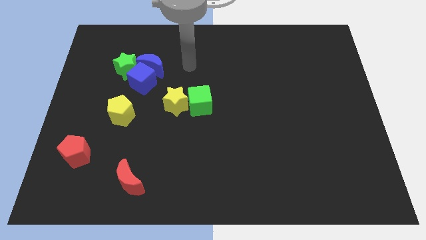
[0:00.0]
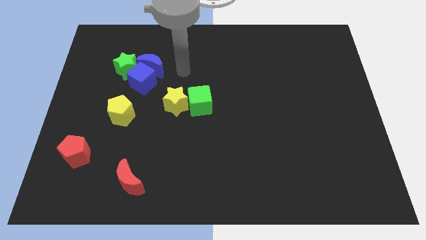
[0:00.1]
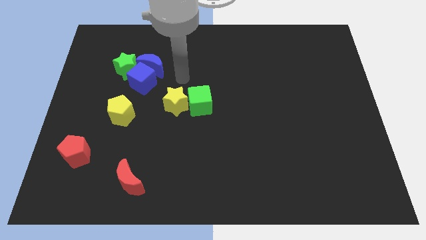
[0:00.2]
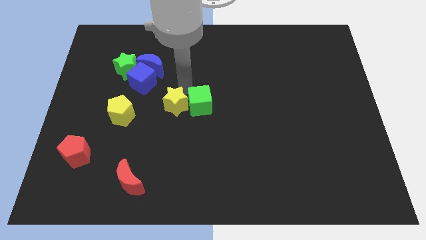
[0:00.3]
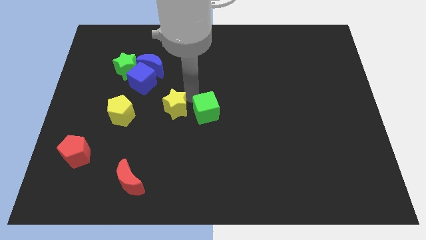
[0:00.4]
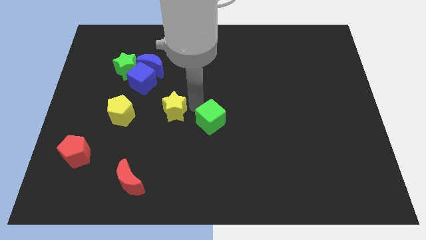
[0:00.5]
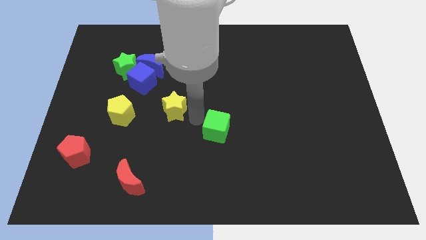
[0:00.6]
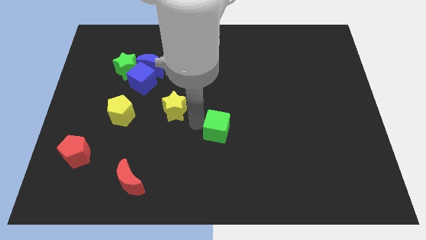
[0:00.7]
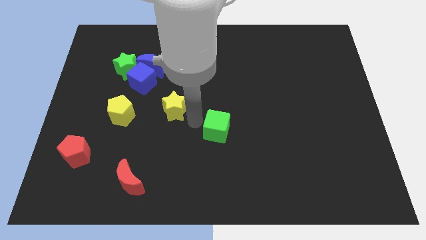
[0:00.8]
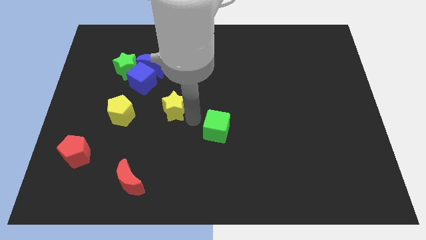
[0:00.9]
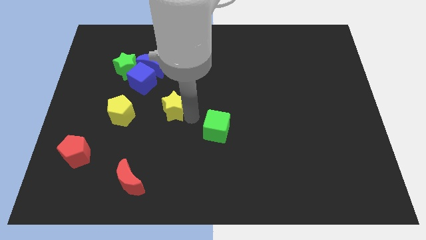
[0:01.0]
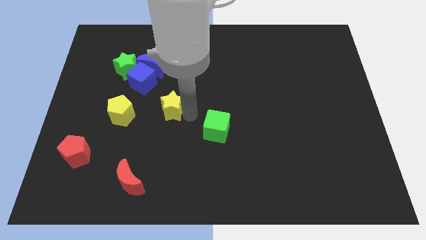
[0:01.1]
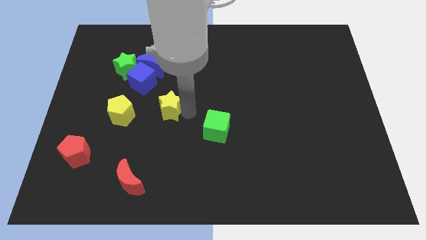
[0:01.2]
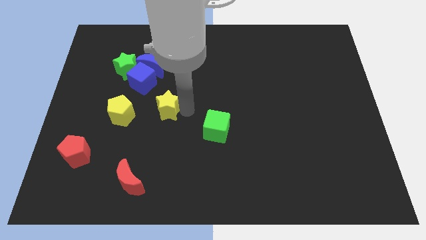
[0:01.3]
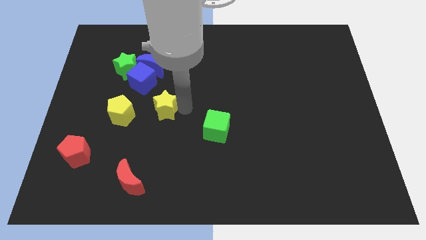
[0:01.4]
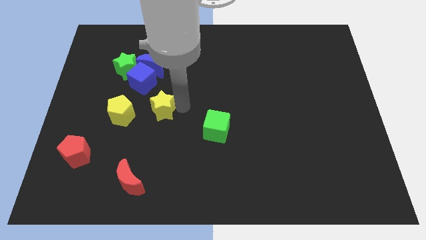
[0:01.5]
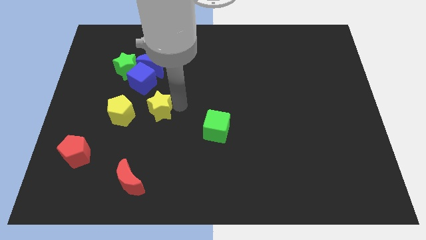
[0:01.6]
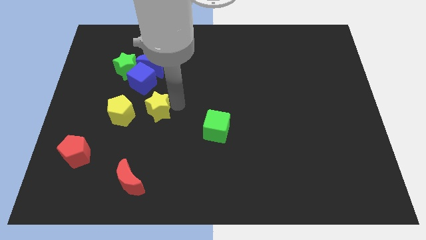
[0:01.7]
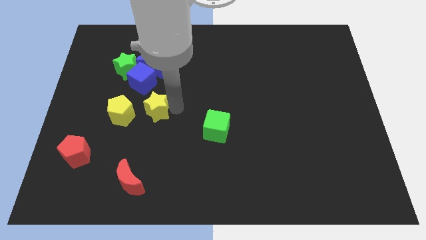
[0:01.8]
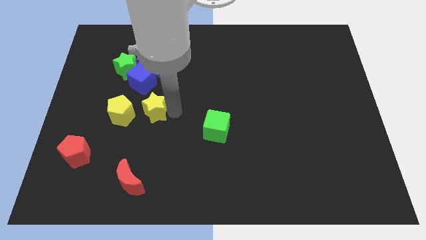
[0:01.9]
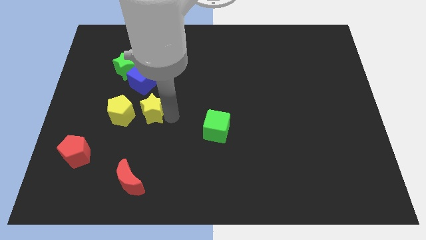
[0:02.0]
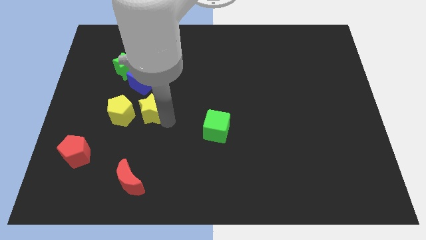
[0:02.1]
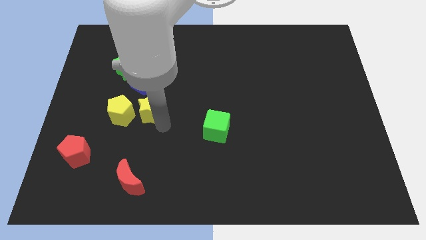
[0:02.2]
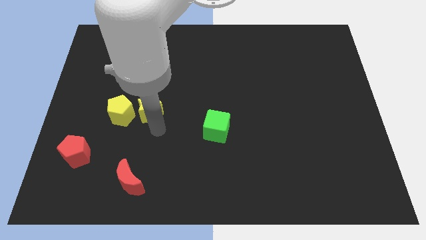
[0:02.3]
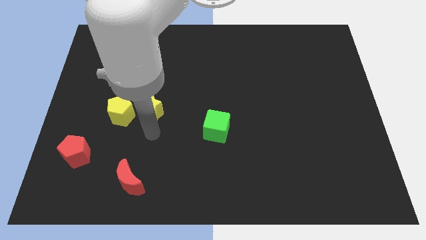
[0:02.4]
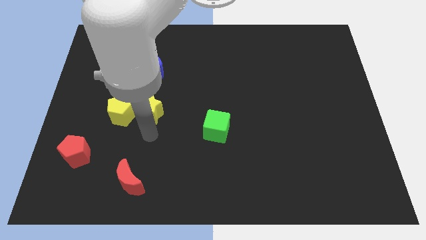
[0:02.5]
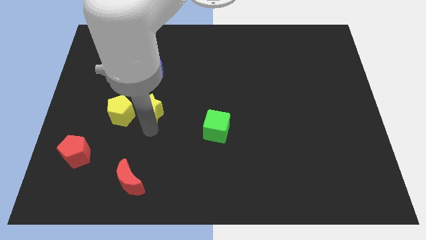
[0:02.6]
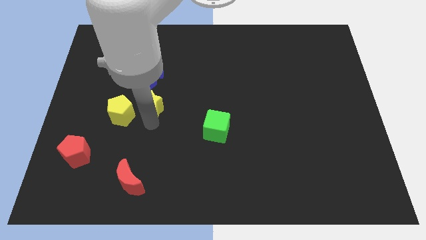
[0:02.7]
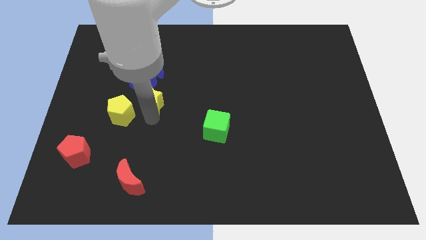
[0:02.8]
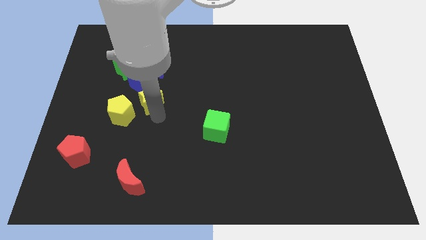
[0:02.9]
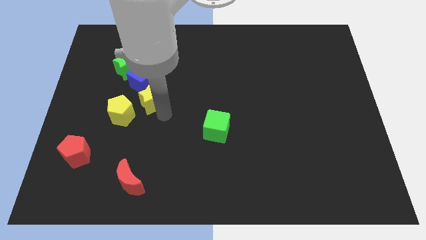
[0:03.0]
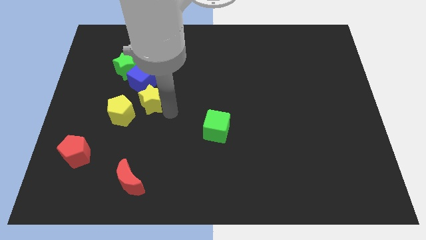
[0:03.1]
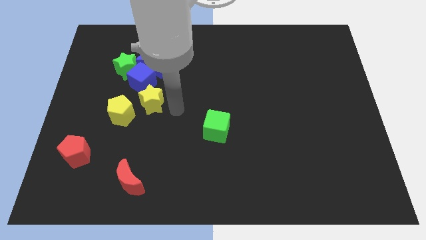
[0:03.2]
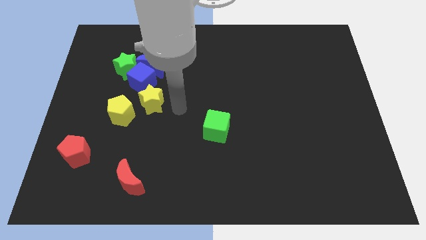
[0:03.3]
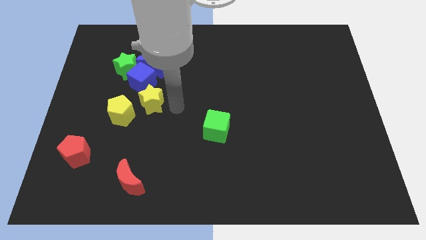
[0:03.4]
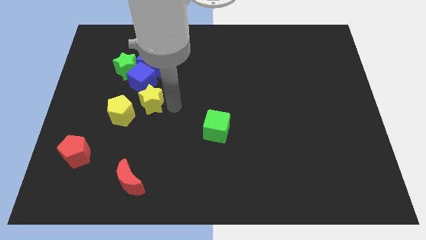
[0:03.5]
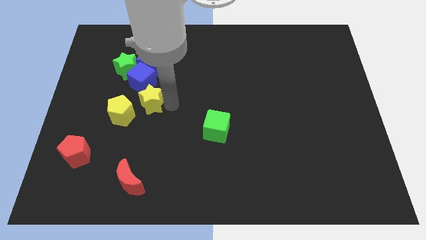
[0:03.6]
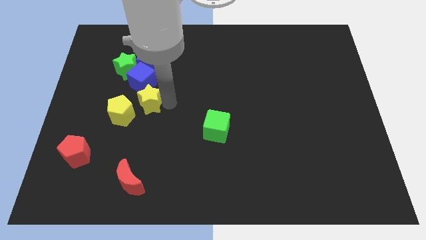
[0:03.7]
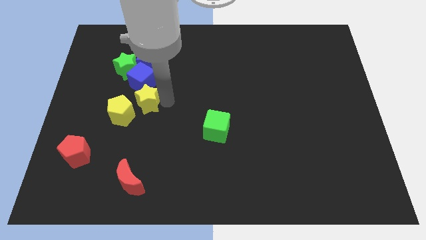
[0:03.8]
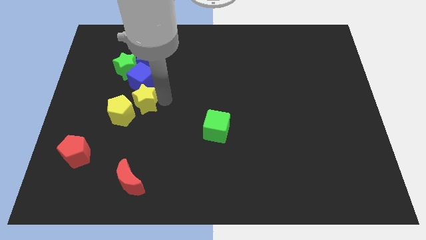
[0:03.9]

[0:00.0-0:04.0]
move the yellow star left slightly

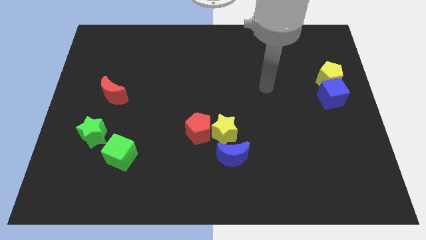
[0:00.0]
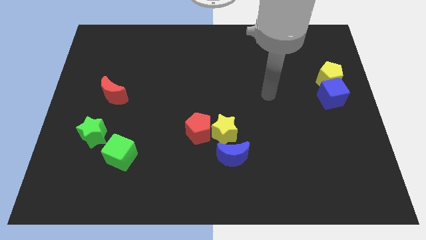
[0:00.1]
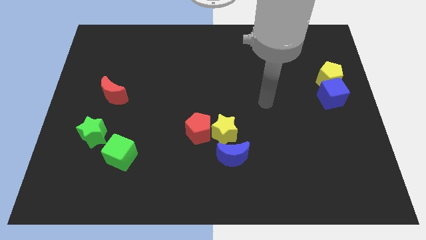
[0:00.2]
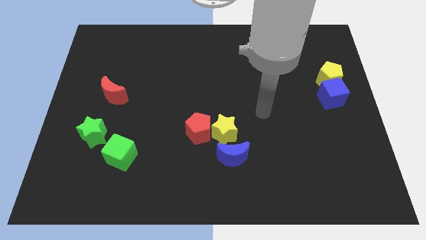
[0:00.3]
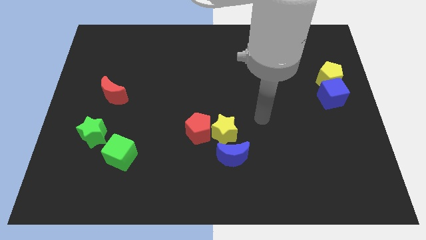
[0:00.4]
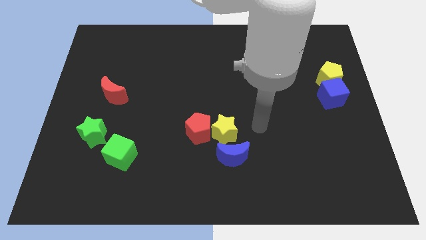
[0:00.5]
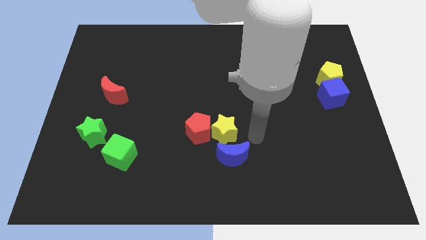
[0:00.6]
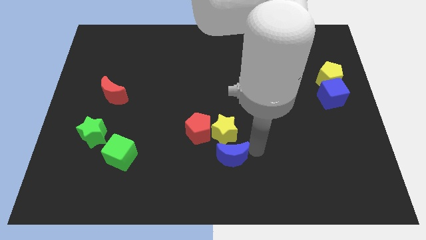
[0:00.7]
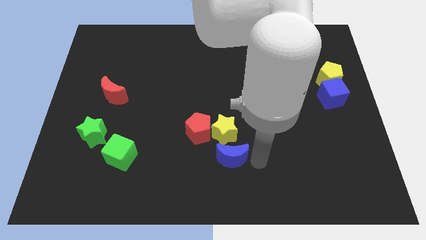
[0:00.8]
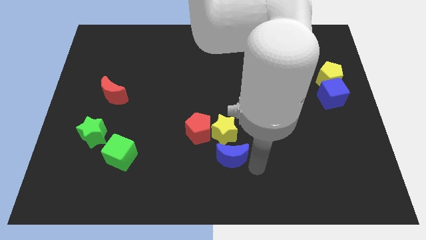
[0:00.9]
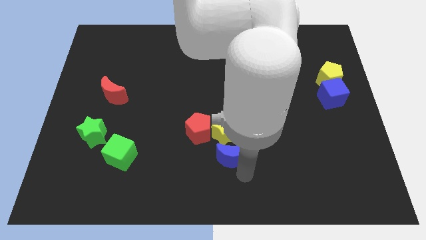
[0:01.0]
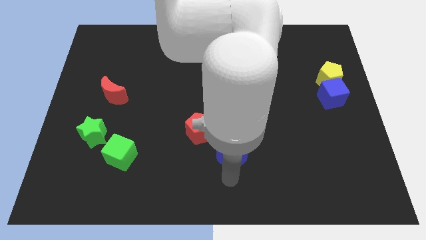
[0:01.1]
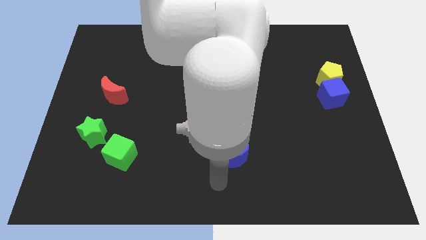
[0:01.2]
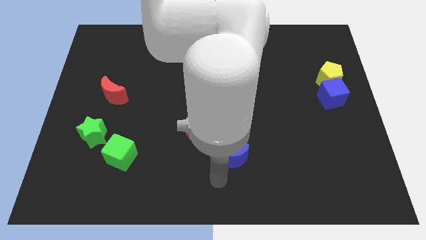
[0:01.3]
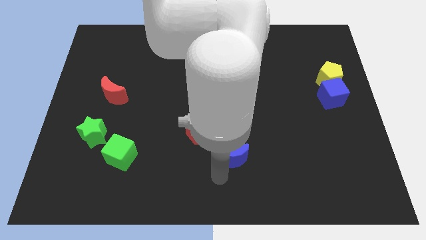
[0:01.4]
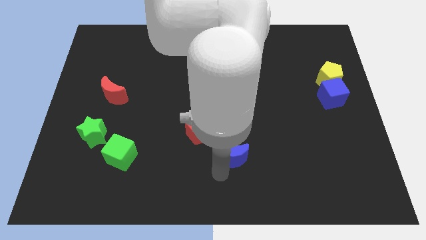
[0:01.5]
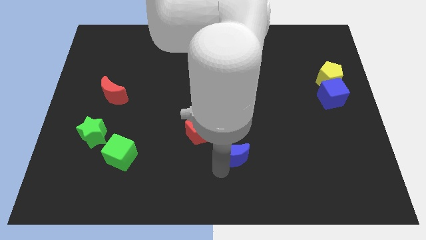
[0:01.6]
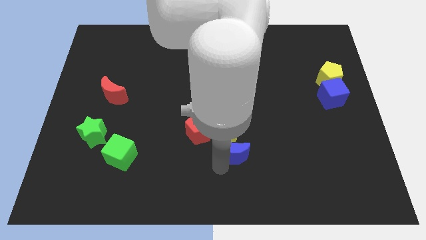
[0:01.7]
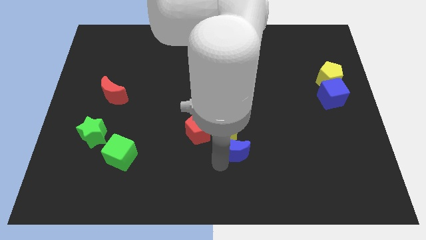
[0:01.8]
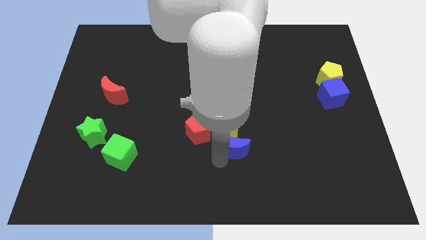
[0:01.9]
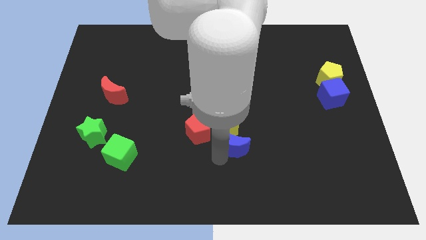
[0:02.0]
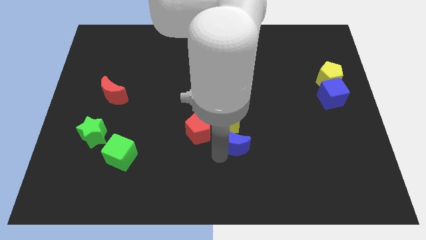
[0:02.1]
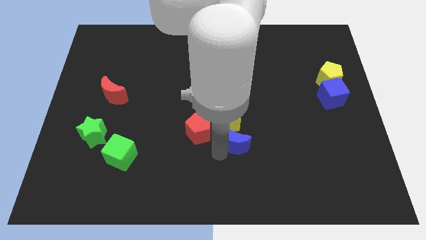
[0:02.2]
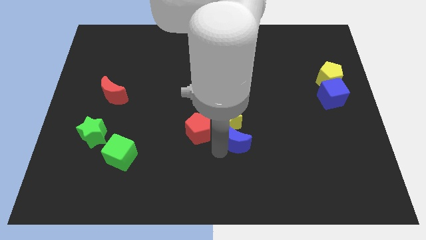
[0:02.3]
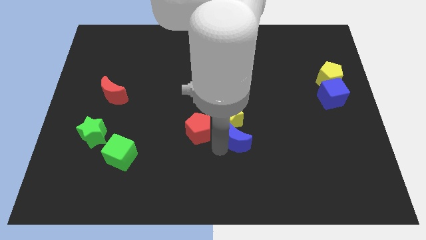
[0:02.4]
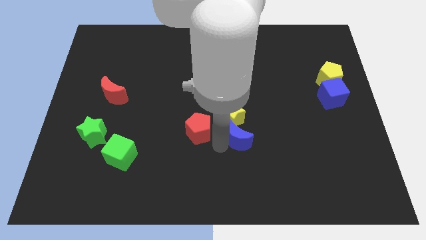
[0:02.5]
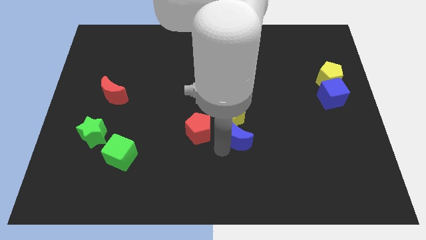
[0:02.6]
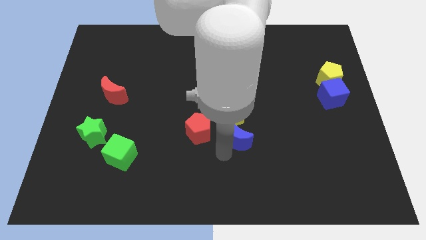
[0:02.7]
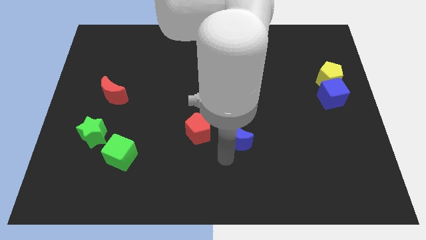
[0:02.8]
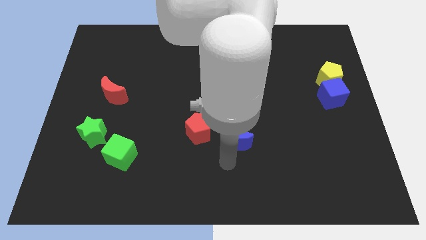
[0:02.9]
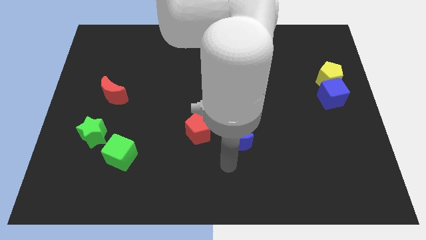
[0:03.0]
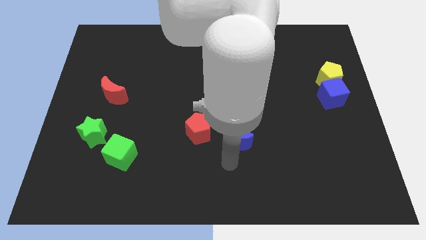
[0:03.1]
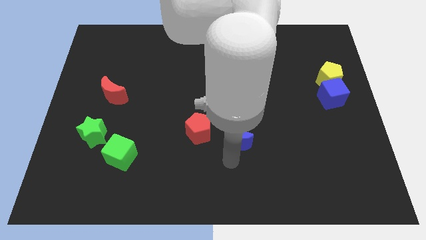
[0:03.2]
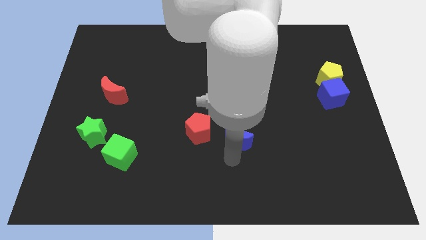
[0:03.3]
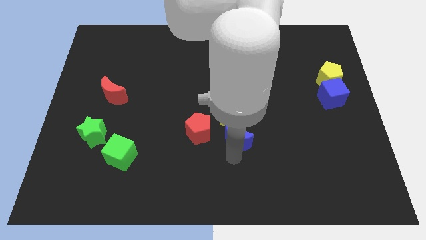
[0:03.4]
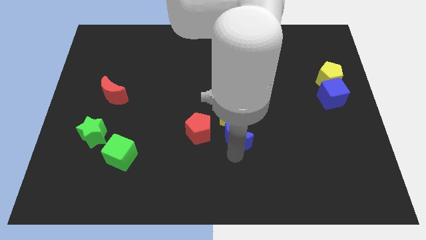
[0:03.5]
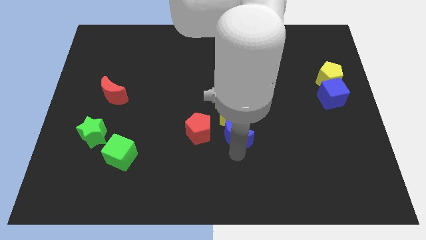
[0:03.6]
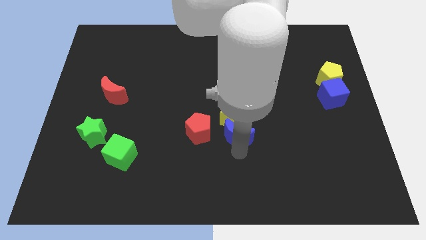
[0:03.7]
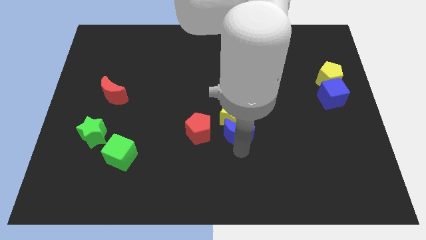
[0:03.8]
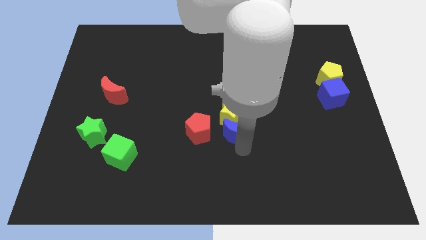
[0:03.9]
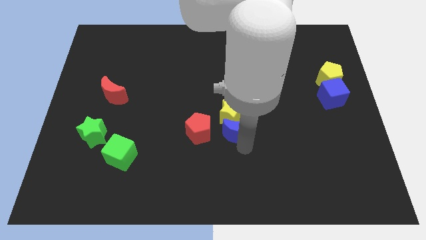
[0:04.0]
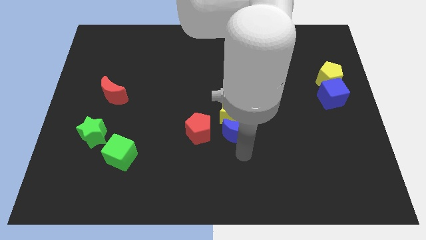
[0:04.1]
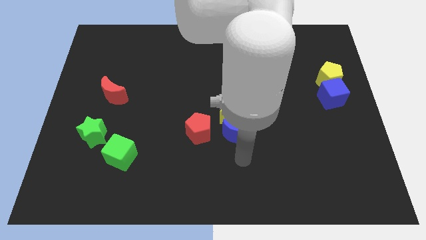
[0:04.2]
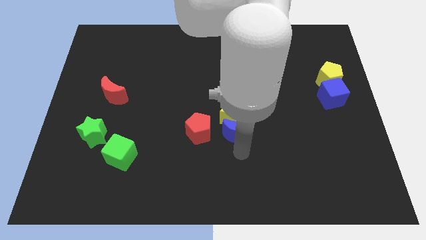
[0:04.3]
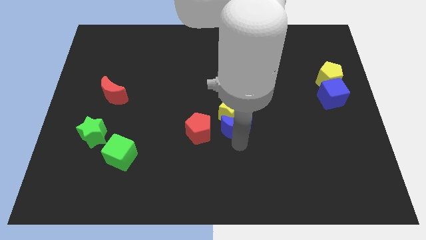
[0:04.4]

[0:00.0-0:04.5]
move the blue moon upwards slightly
